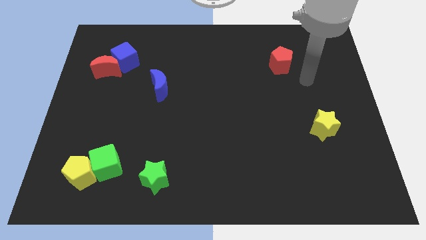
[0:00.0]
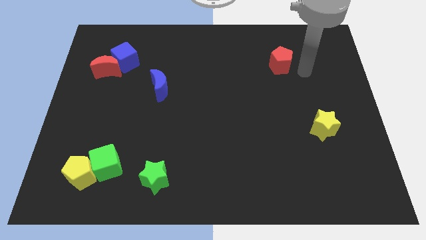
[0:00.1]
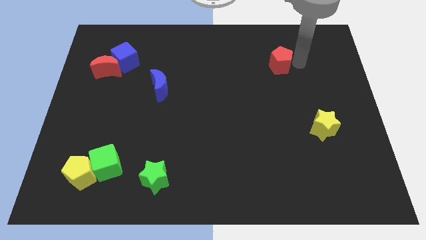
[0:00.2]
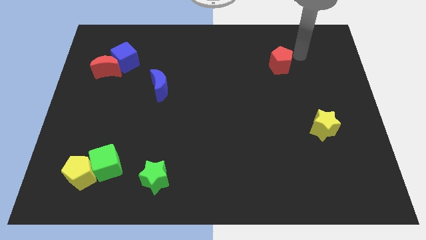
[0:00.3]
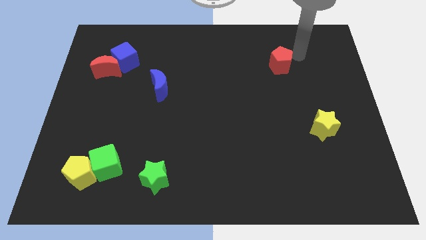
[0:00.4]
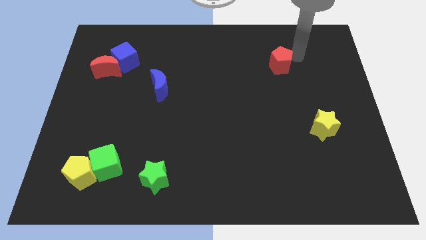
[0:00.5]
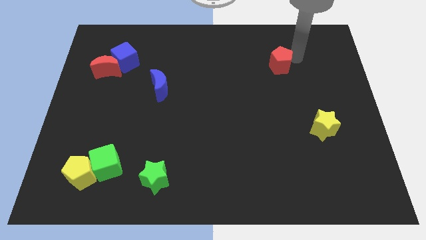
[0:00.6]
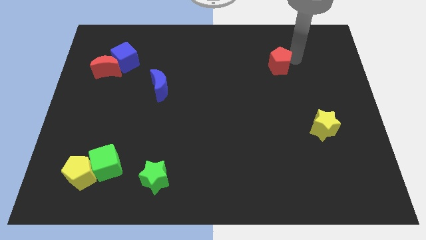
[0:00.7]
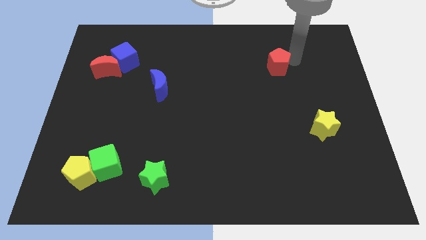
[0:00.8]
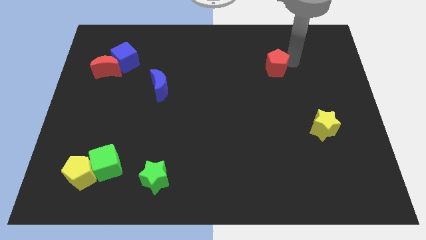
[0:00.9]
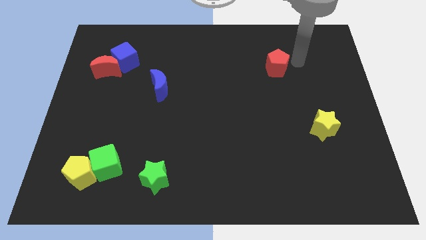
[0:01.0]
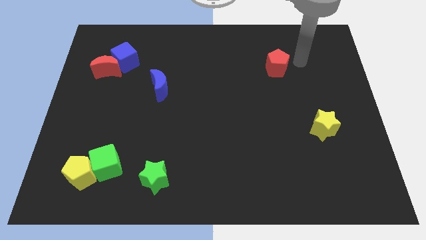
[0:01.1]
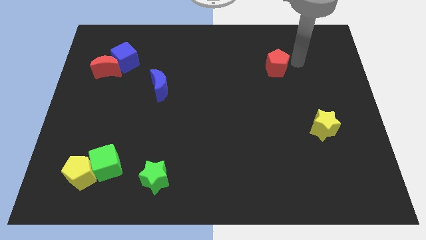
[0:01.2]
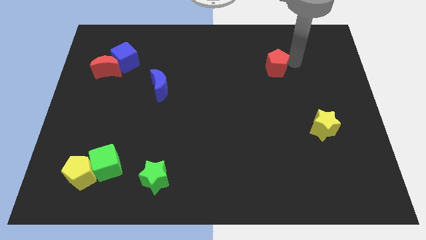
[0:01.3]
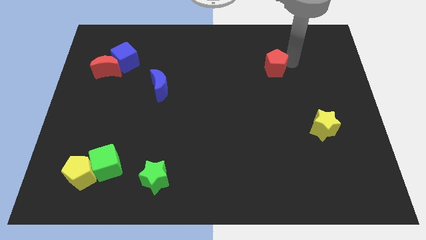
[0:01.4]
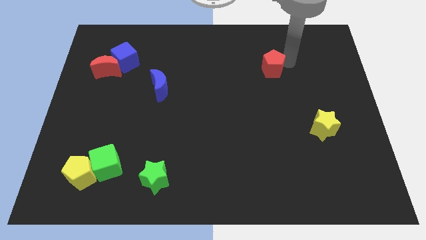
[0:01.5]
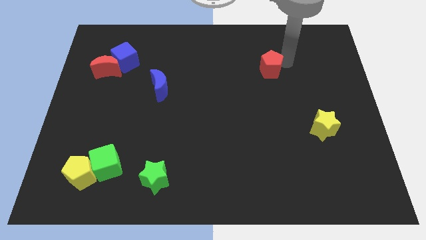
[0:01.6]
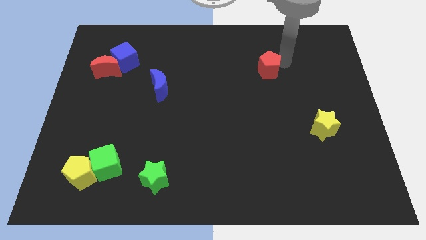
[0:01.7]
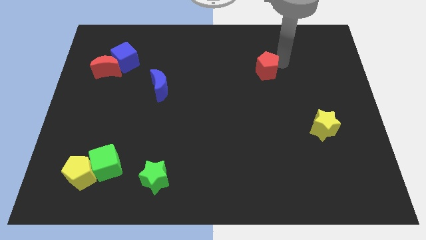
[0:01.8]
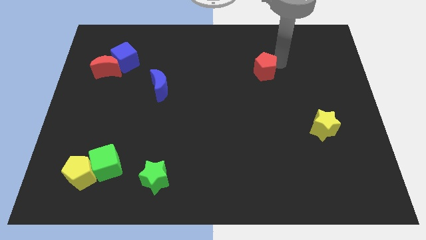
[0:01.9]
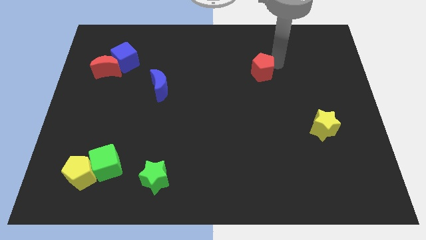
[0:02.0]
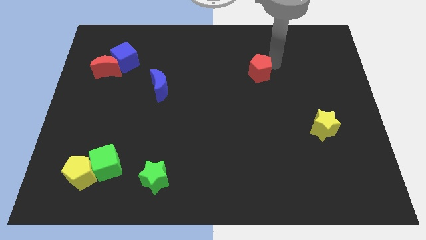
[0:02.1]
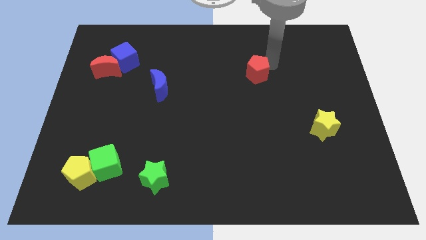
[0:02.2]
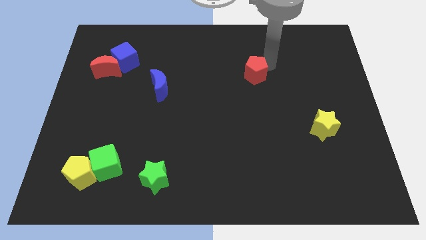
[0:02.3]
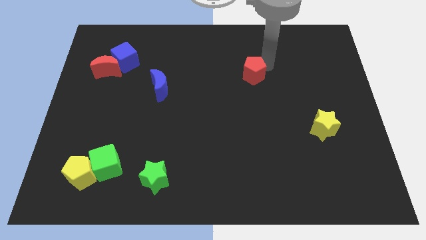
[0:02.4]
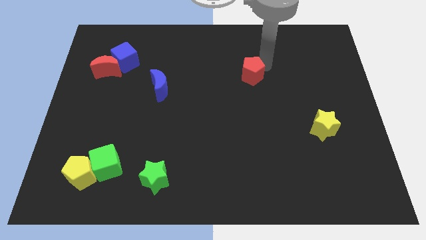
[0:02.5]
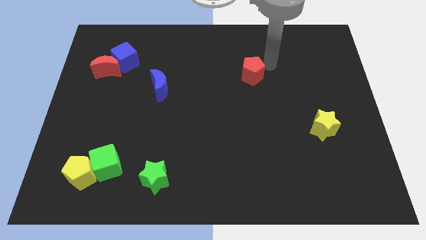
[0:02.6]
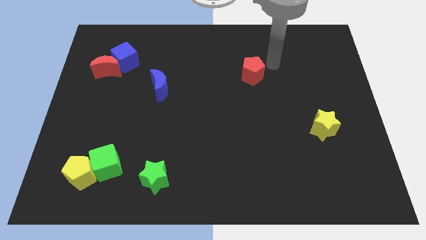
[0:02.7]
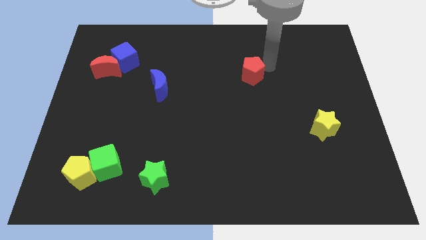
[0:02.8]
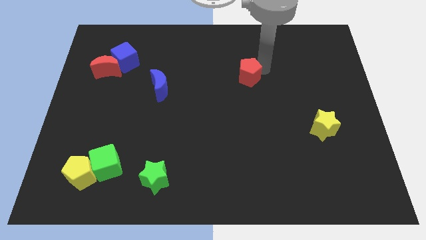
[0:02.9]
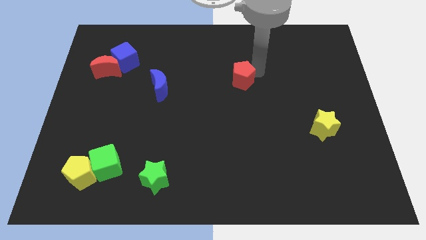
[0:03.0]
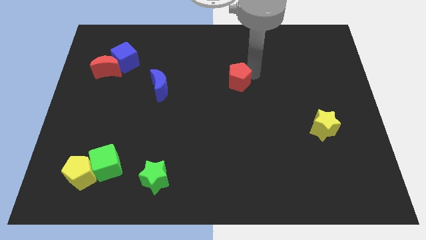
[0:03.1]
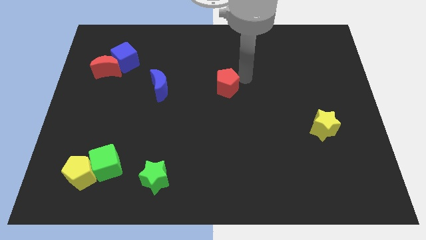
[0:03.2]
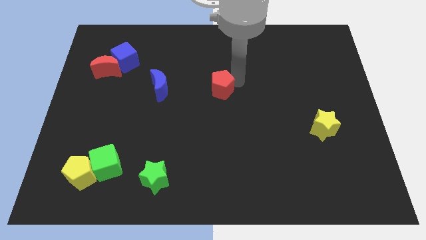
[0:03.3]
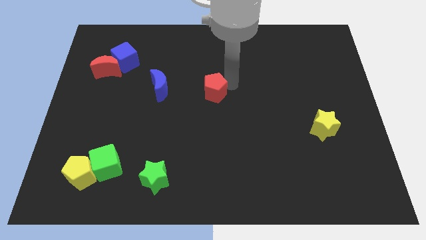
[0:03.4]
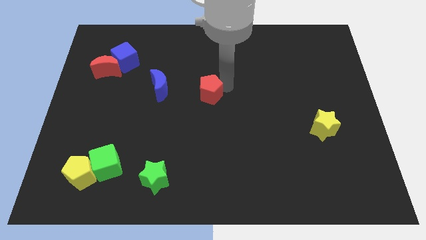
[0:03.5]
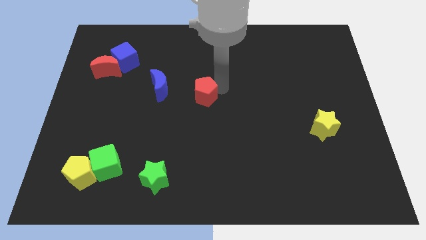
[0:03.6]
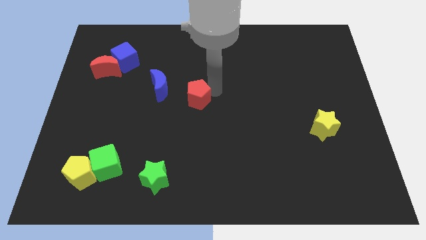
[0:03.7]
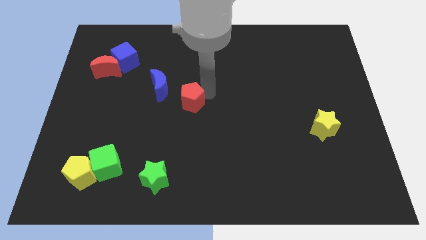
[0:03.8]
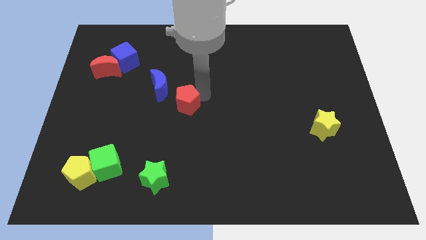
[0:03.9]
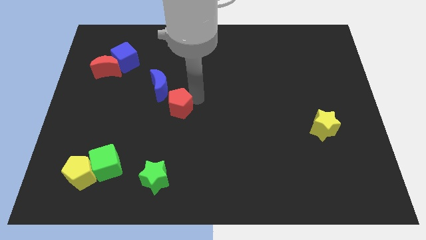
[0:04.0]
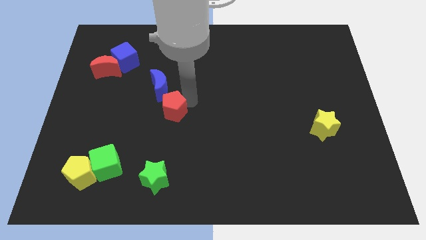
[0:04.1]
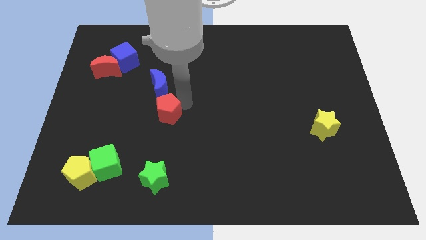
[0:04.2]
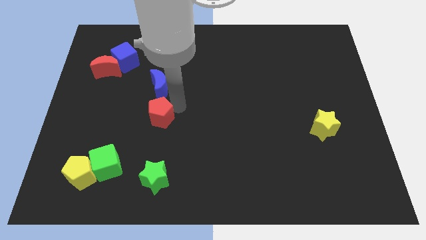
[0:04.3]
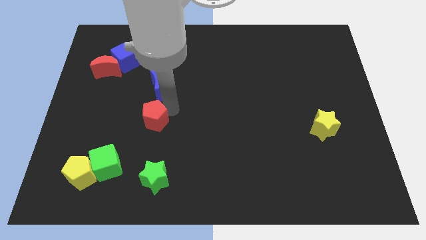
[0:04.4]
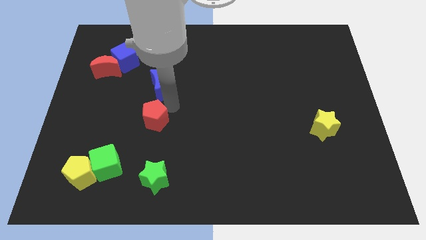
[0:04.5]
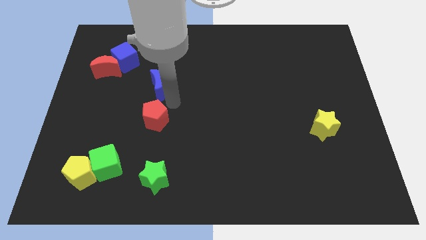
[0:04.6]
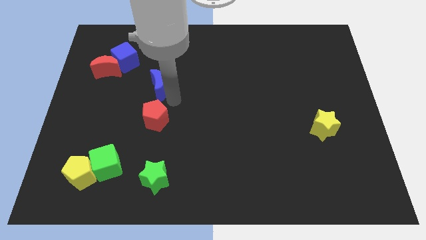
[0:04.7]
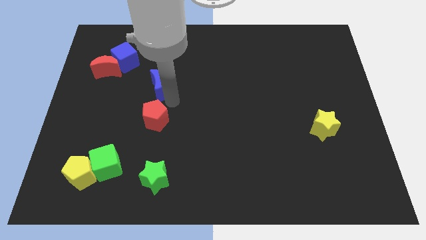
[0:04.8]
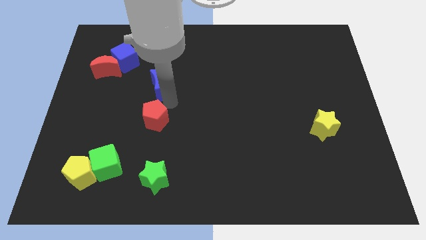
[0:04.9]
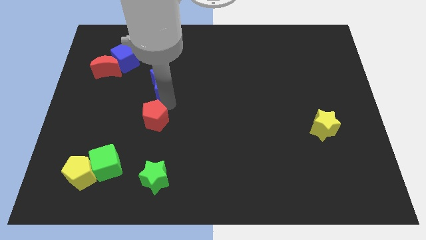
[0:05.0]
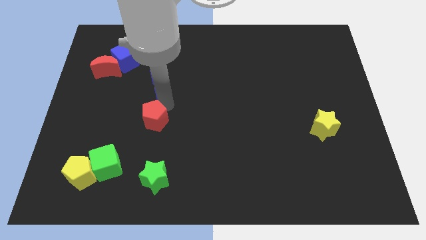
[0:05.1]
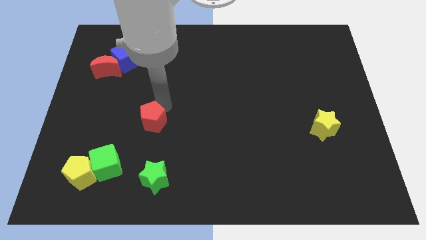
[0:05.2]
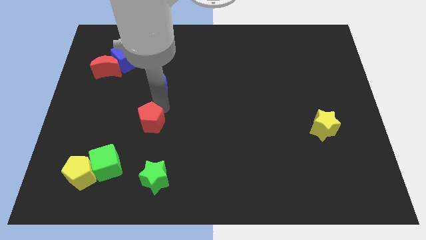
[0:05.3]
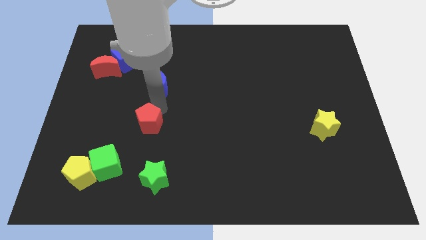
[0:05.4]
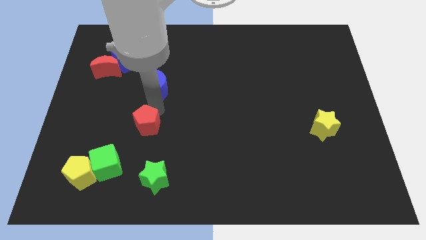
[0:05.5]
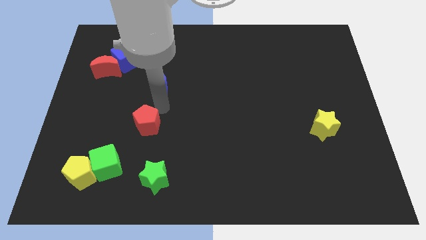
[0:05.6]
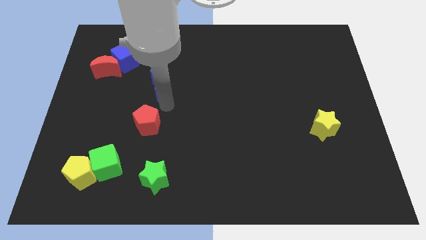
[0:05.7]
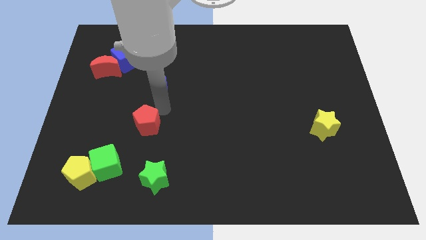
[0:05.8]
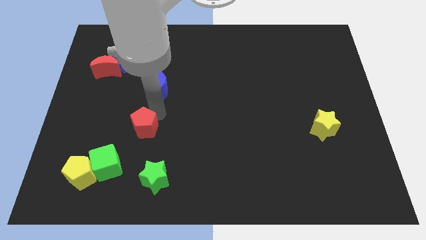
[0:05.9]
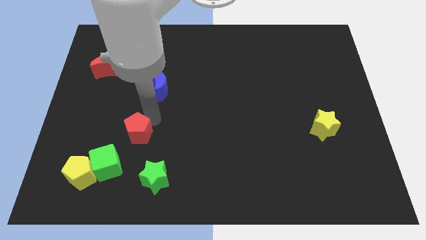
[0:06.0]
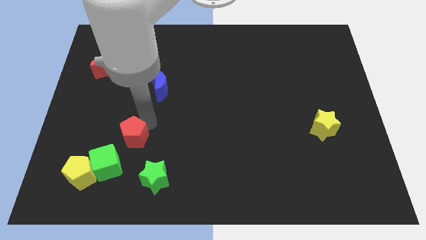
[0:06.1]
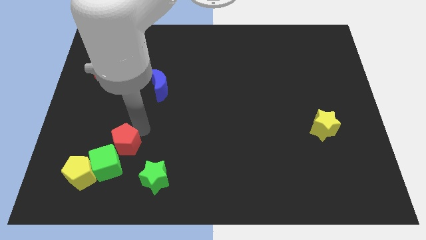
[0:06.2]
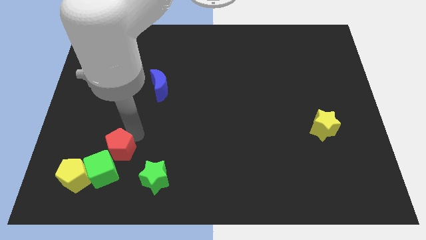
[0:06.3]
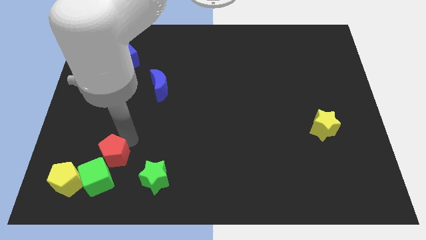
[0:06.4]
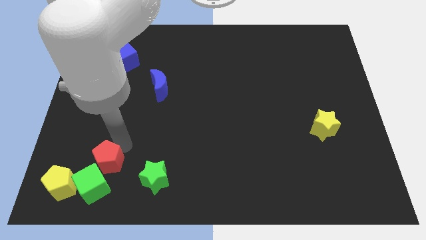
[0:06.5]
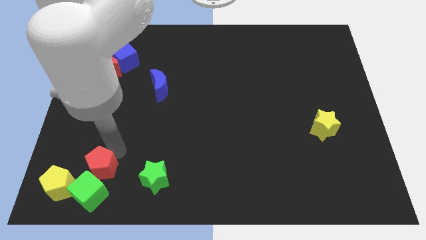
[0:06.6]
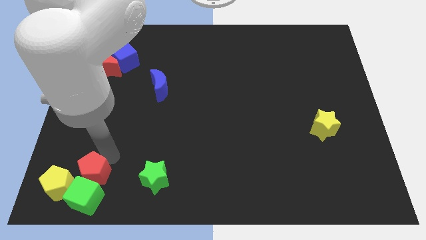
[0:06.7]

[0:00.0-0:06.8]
move the red pentagon towards the green cube

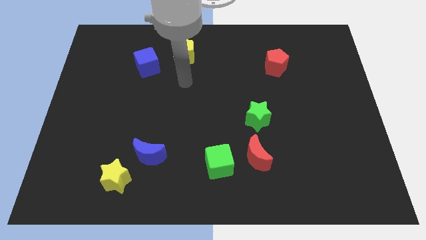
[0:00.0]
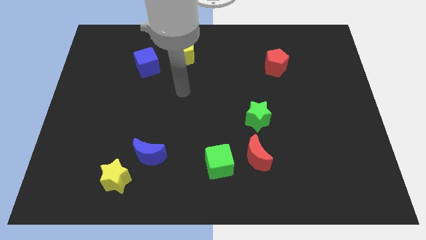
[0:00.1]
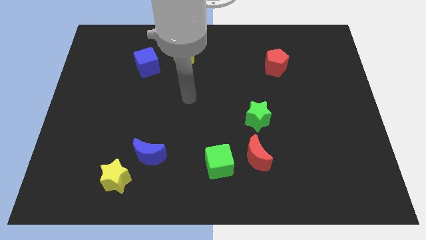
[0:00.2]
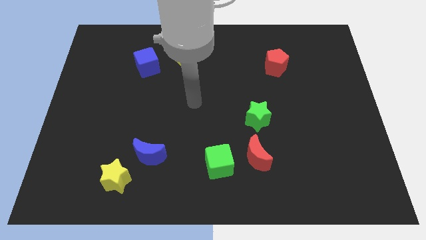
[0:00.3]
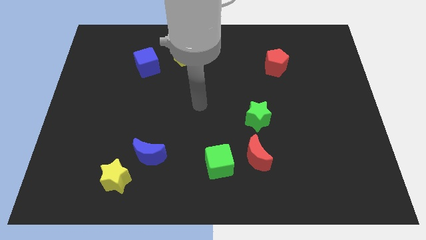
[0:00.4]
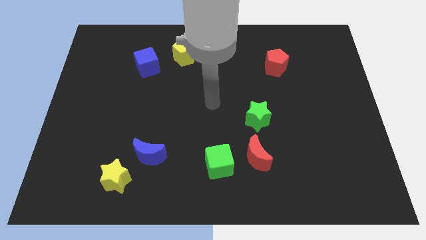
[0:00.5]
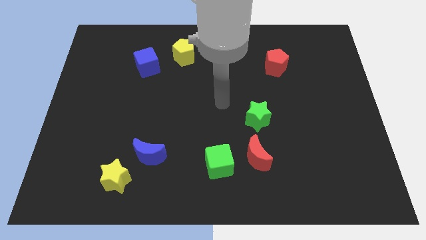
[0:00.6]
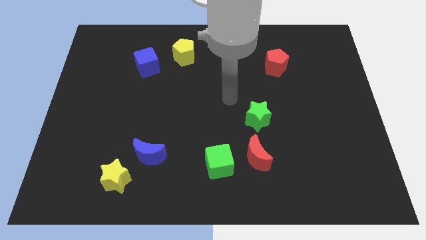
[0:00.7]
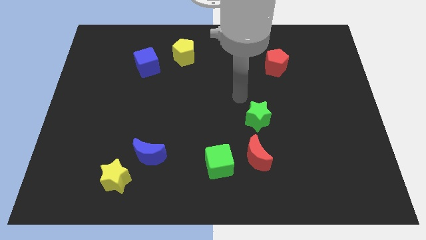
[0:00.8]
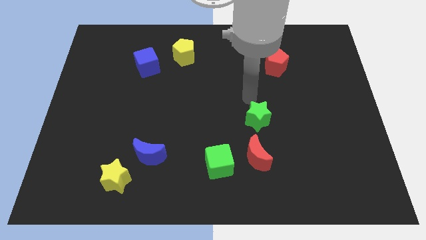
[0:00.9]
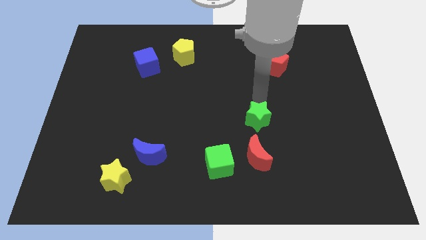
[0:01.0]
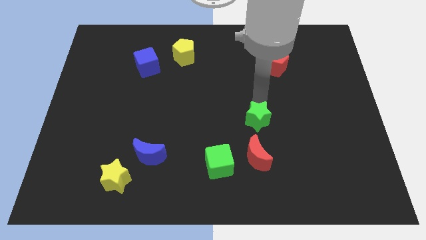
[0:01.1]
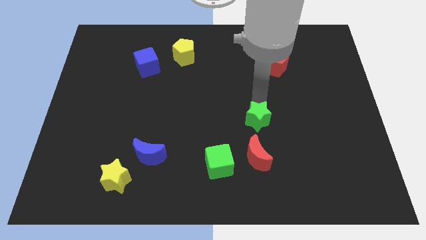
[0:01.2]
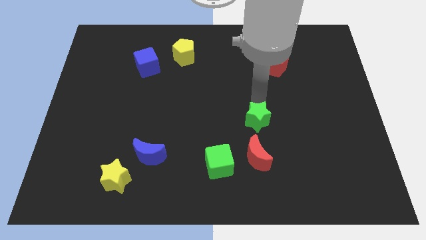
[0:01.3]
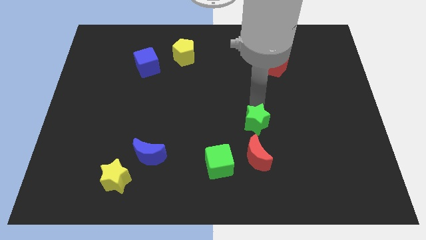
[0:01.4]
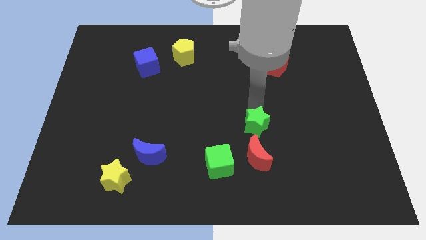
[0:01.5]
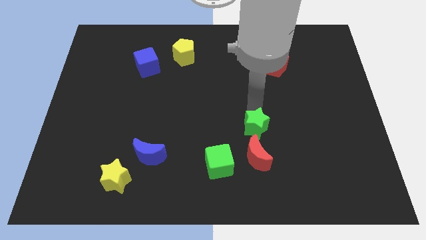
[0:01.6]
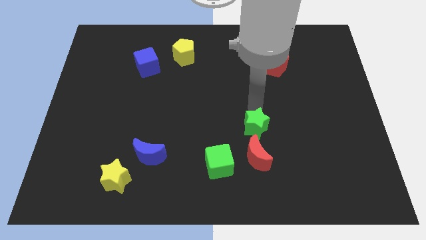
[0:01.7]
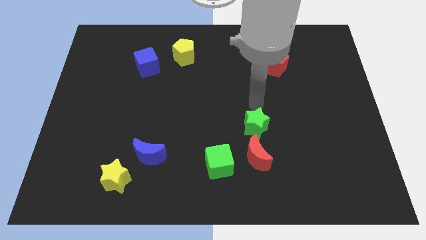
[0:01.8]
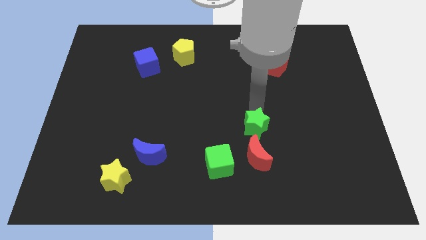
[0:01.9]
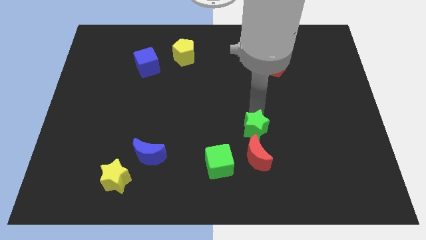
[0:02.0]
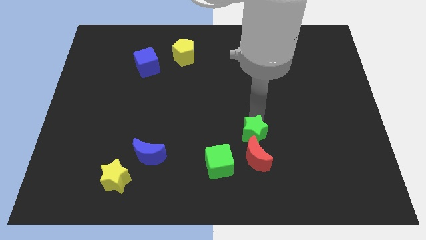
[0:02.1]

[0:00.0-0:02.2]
move the green star towards the red moon
